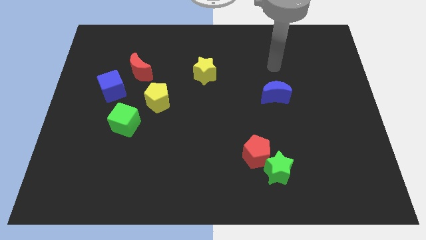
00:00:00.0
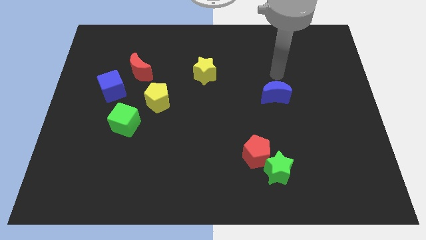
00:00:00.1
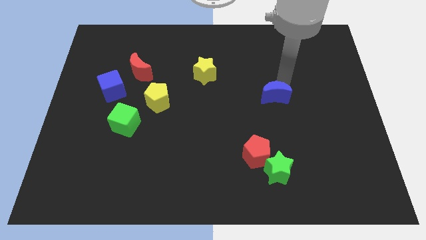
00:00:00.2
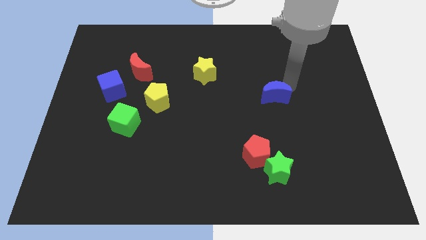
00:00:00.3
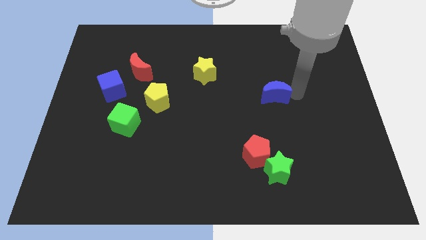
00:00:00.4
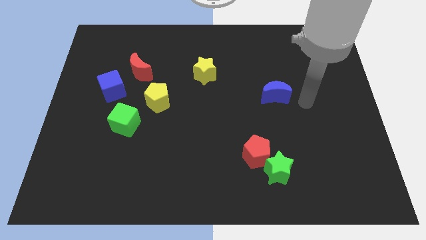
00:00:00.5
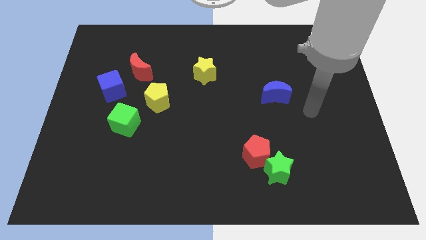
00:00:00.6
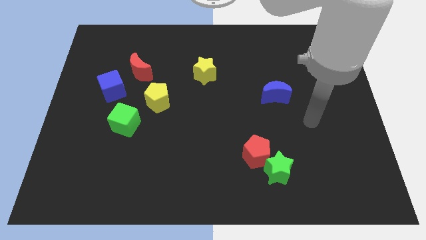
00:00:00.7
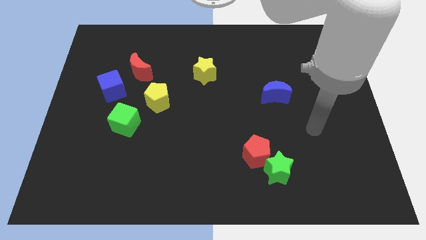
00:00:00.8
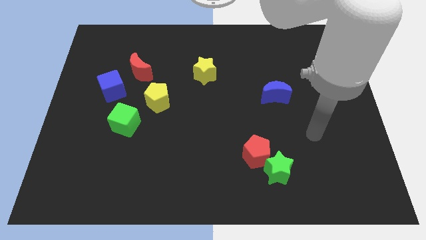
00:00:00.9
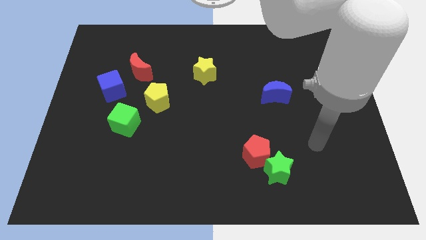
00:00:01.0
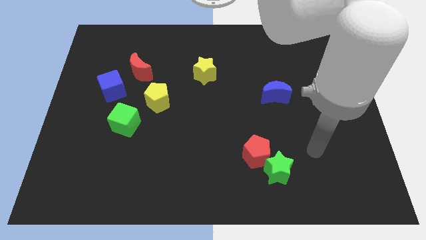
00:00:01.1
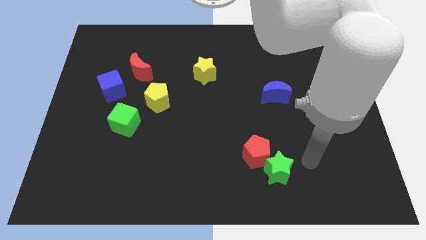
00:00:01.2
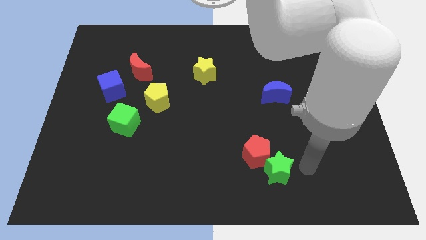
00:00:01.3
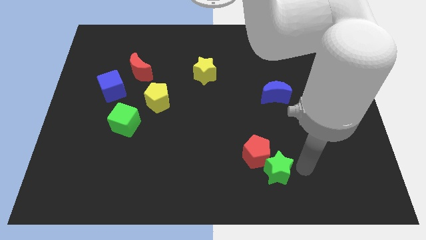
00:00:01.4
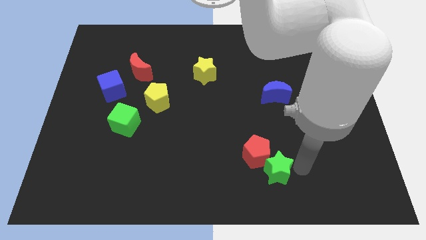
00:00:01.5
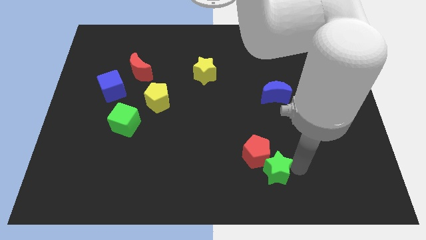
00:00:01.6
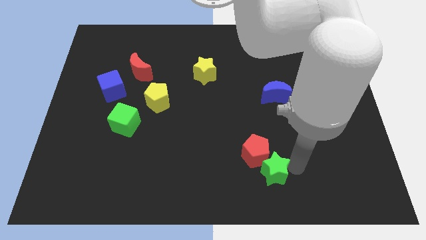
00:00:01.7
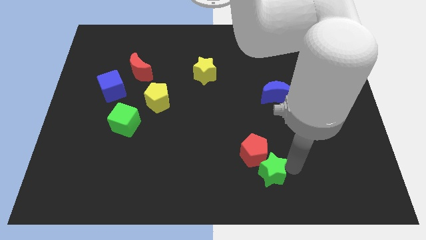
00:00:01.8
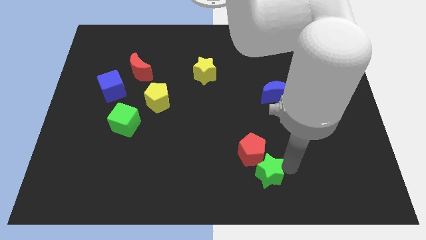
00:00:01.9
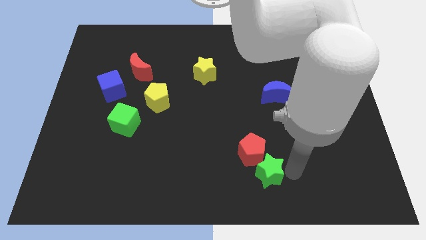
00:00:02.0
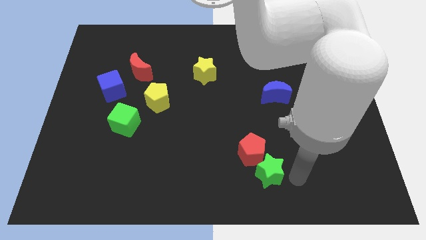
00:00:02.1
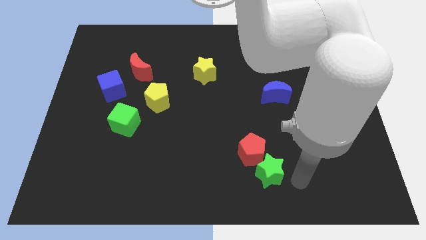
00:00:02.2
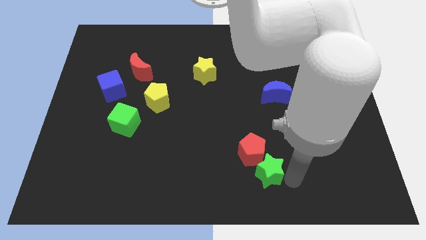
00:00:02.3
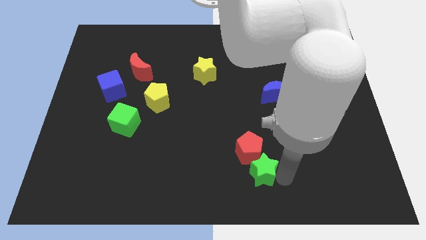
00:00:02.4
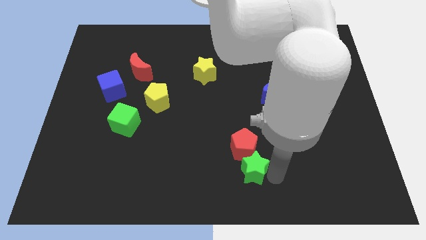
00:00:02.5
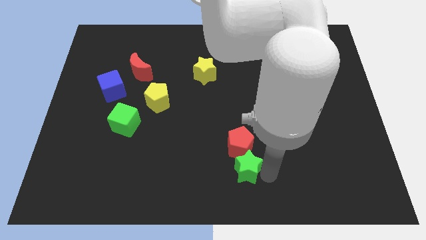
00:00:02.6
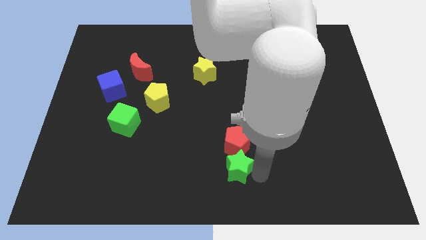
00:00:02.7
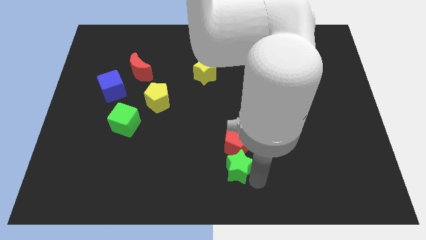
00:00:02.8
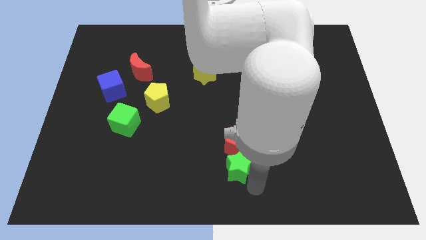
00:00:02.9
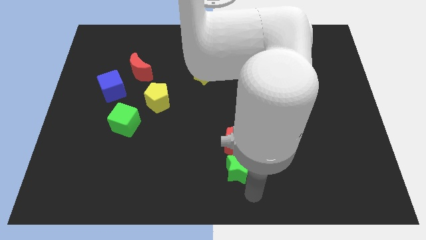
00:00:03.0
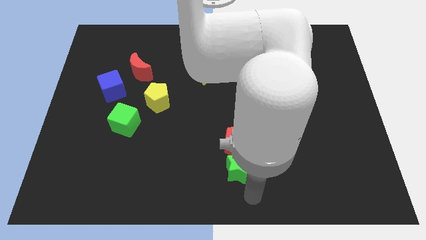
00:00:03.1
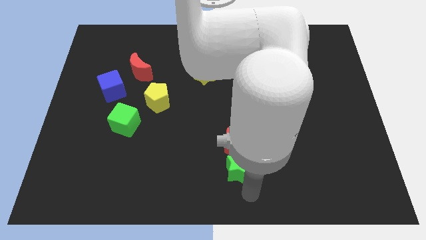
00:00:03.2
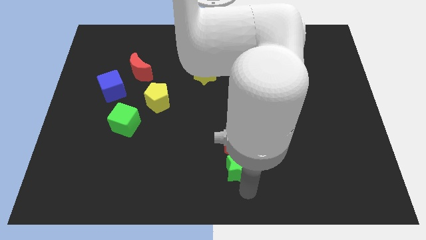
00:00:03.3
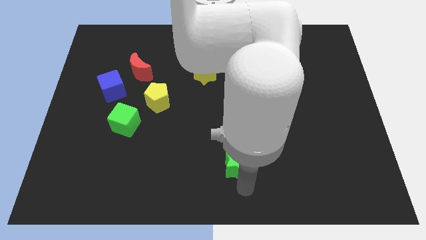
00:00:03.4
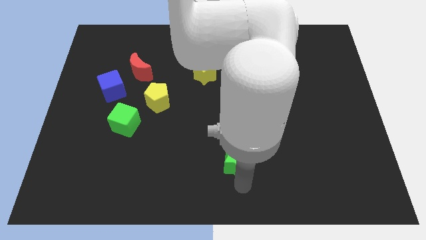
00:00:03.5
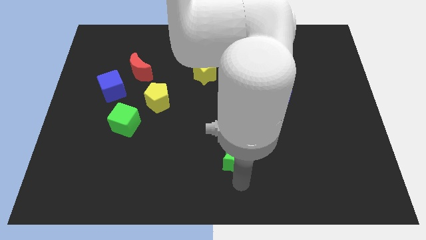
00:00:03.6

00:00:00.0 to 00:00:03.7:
slightly move the green star up and then left

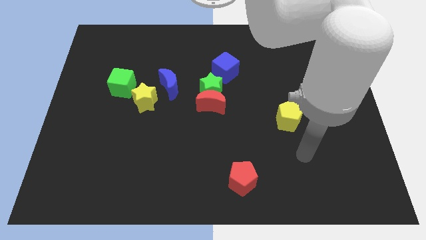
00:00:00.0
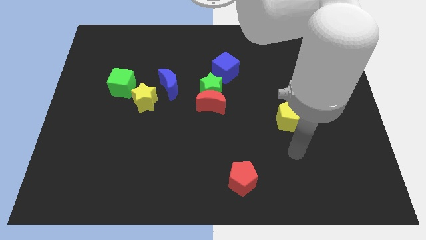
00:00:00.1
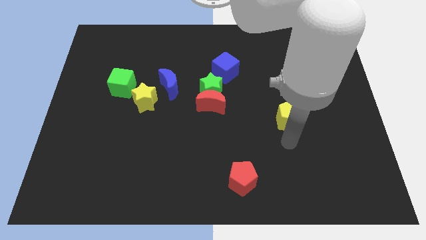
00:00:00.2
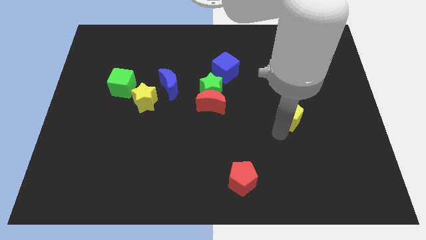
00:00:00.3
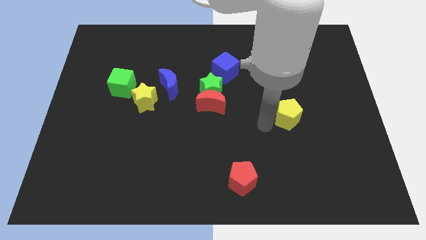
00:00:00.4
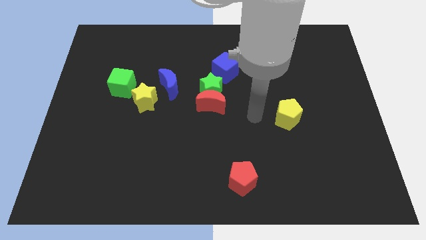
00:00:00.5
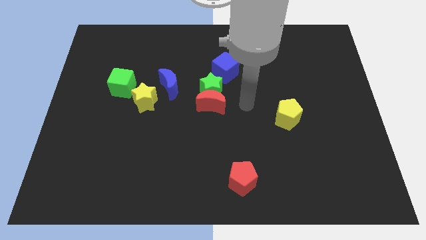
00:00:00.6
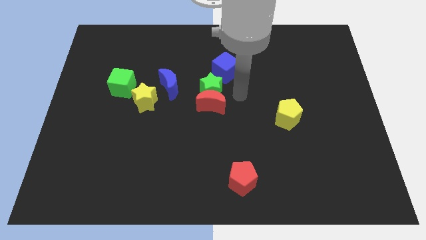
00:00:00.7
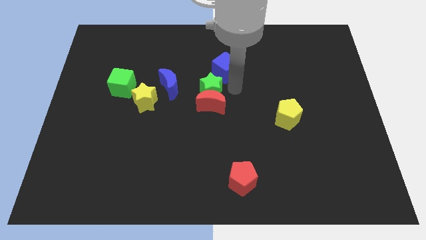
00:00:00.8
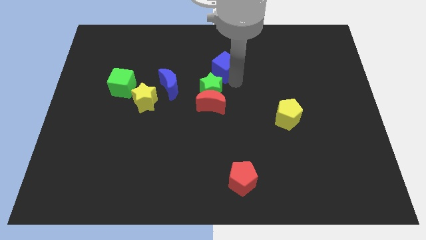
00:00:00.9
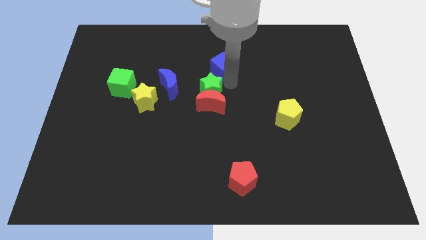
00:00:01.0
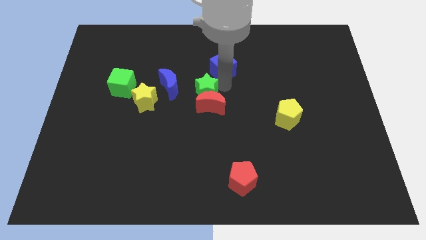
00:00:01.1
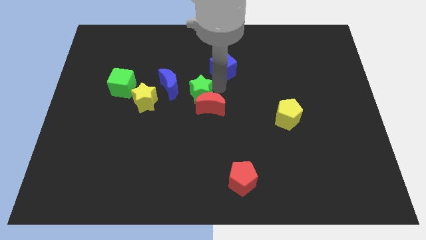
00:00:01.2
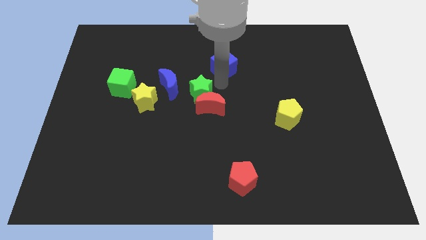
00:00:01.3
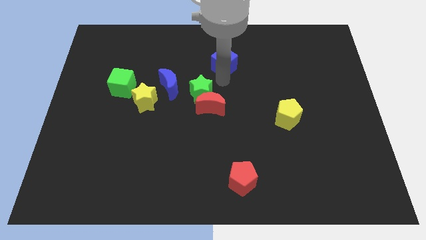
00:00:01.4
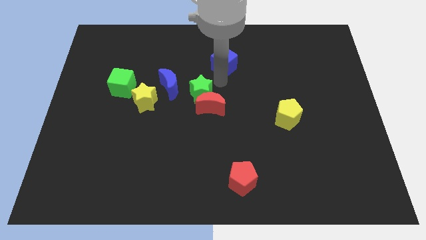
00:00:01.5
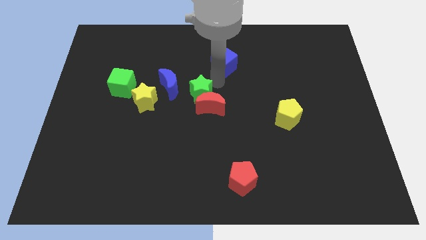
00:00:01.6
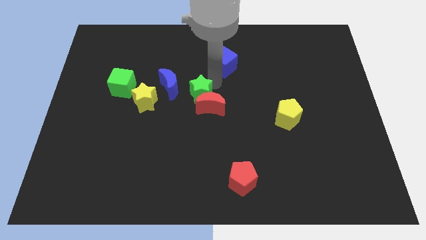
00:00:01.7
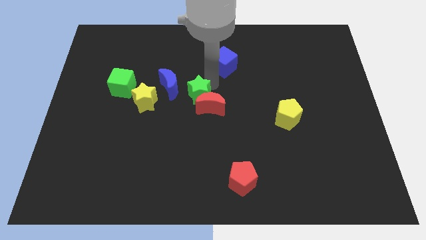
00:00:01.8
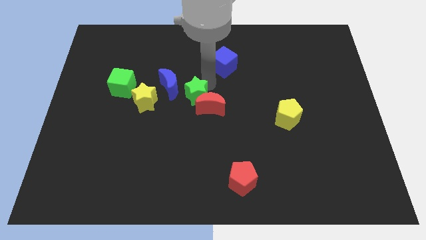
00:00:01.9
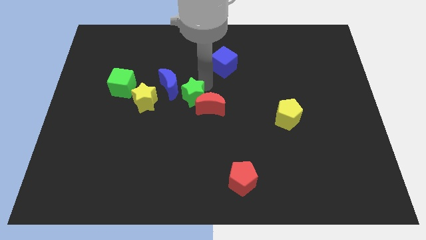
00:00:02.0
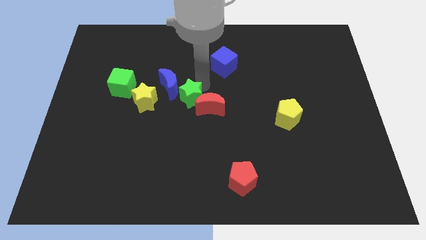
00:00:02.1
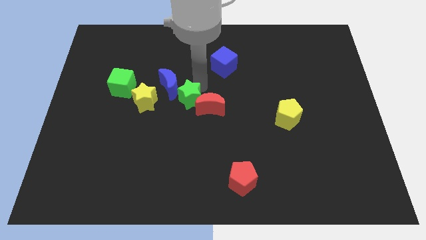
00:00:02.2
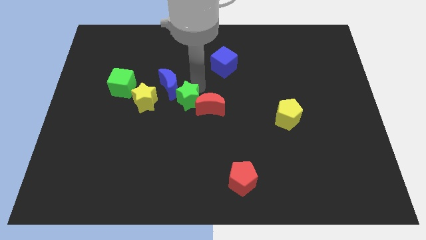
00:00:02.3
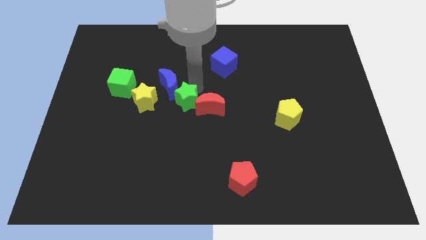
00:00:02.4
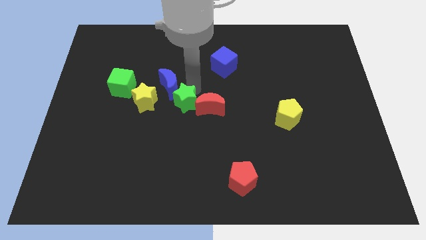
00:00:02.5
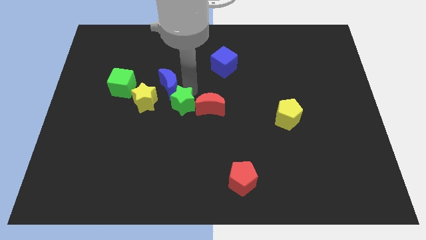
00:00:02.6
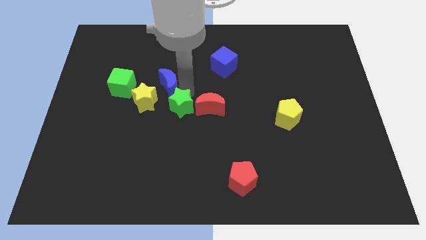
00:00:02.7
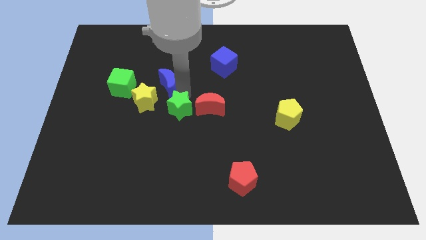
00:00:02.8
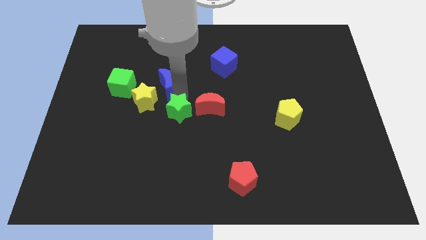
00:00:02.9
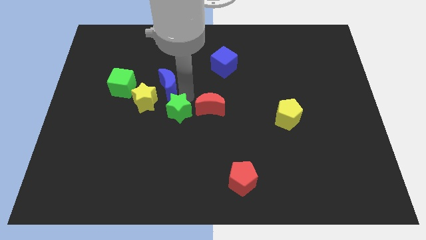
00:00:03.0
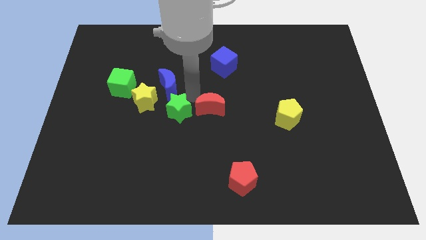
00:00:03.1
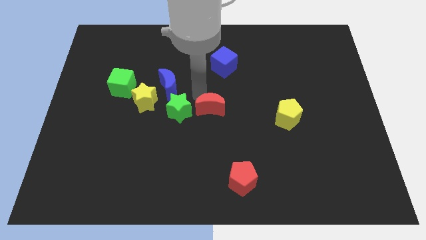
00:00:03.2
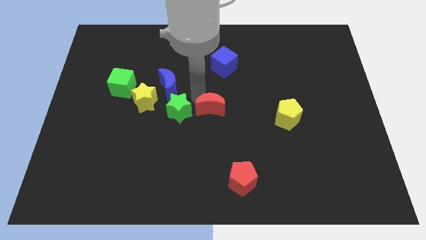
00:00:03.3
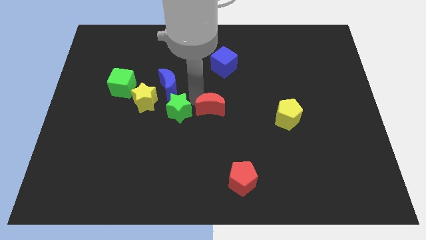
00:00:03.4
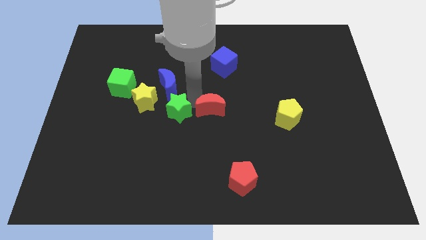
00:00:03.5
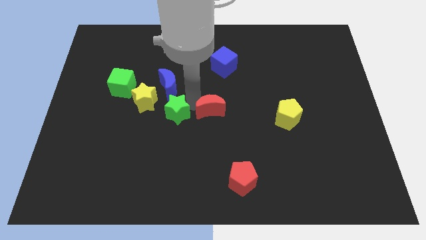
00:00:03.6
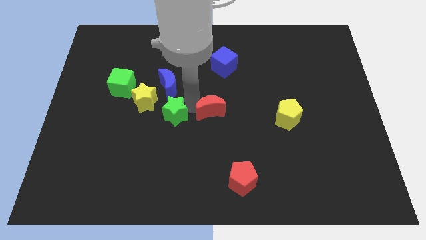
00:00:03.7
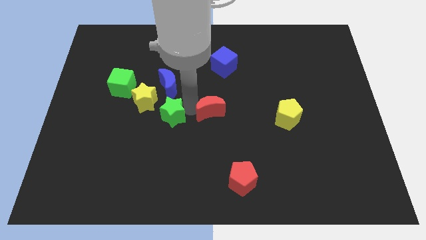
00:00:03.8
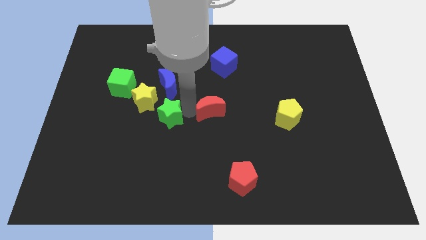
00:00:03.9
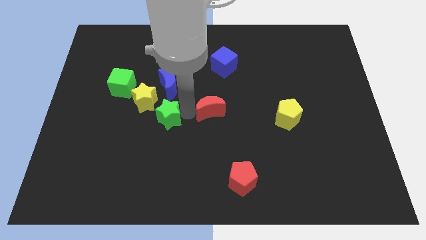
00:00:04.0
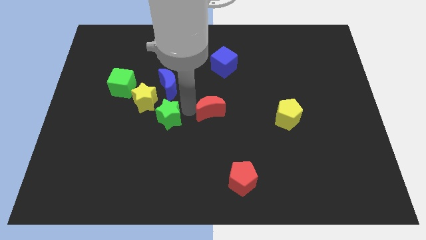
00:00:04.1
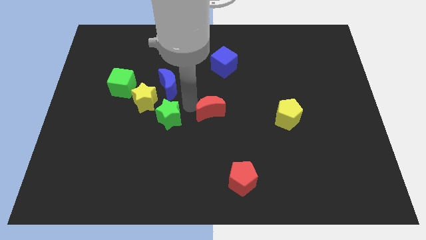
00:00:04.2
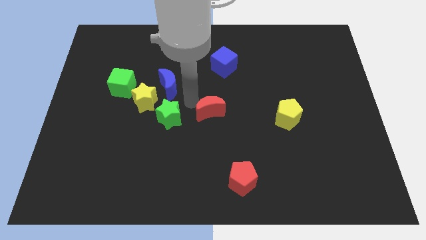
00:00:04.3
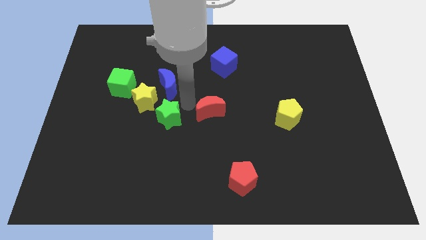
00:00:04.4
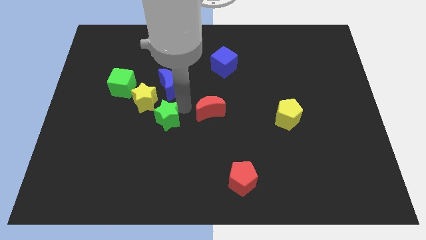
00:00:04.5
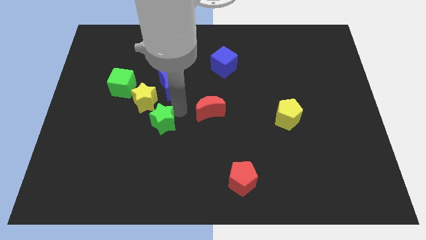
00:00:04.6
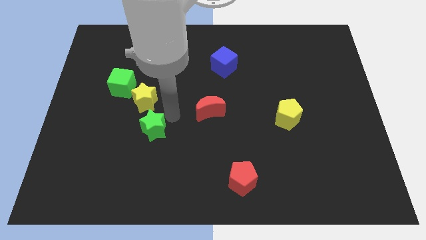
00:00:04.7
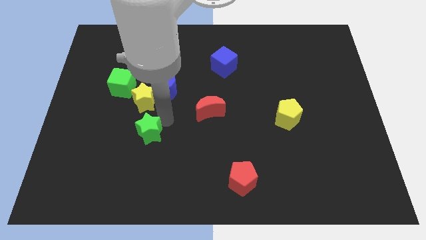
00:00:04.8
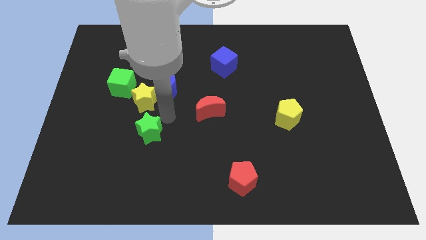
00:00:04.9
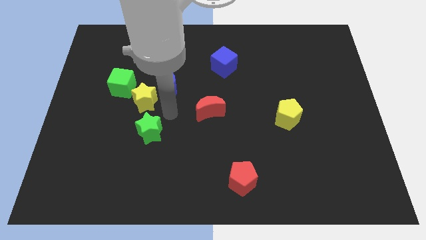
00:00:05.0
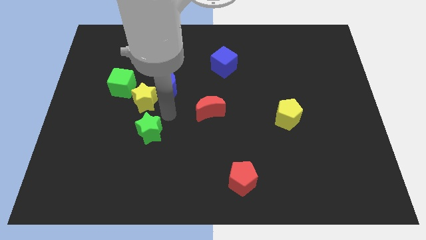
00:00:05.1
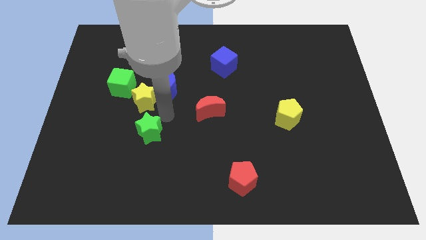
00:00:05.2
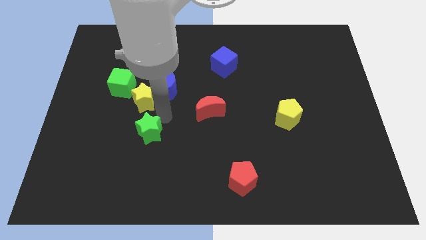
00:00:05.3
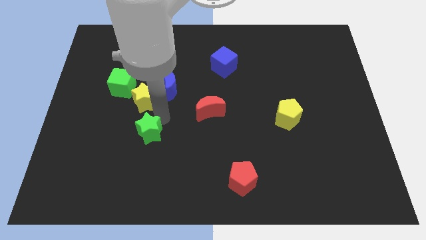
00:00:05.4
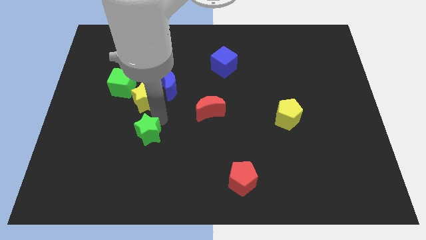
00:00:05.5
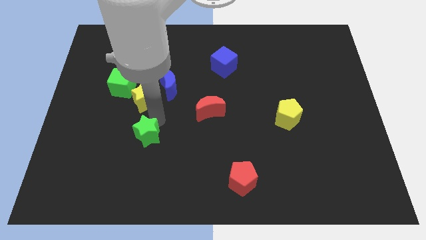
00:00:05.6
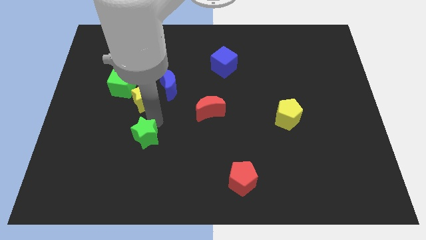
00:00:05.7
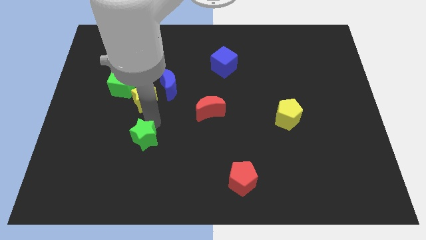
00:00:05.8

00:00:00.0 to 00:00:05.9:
push the green star downwards and to the left diagonally
